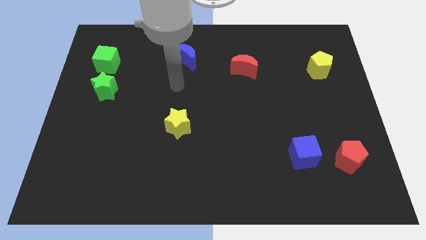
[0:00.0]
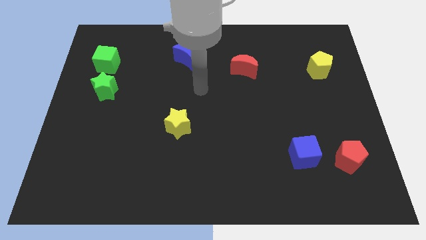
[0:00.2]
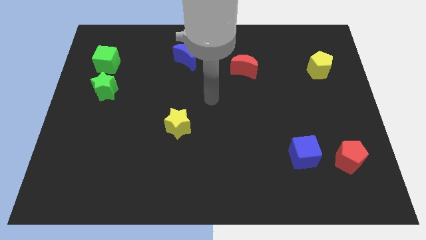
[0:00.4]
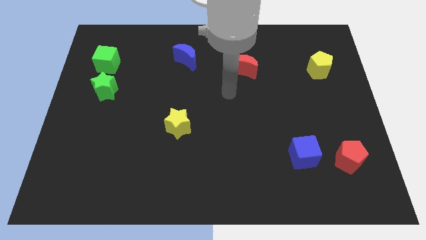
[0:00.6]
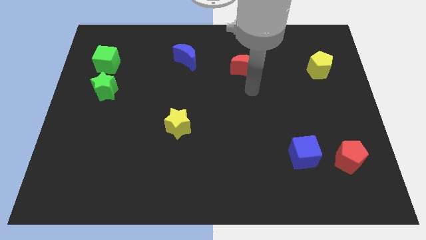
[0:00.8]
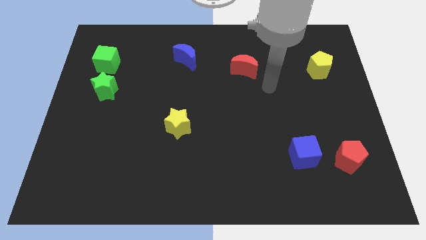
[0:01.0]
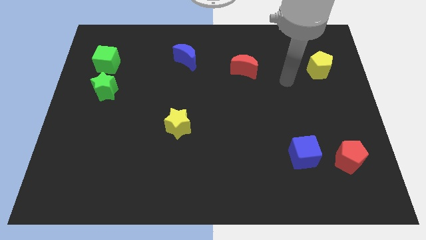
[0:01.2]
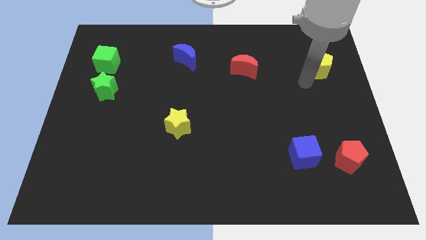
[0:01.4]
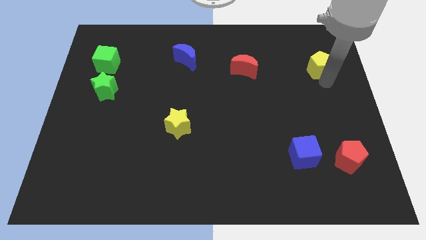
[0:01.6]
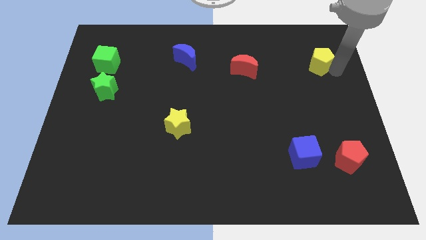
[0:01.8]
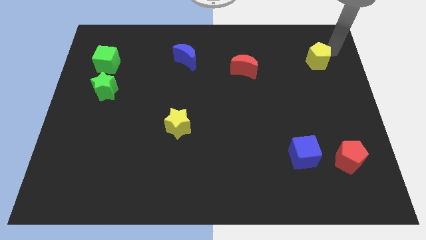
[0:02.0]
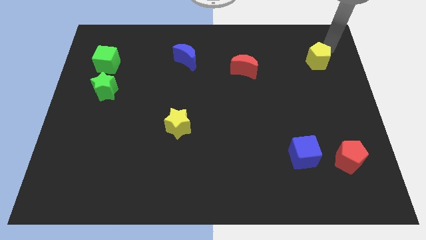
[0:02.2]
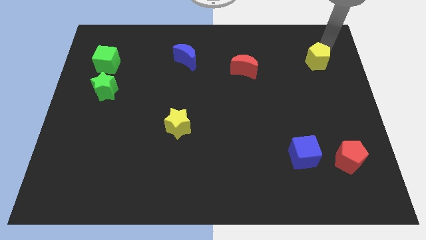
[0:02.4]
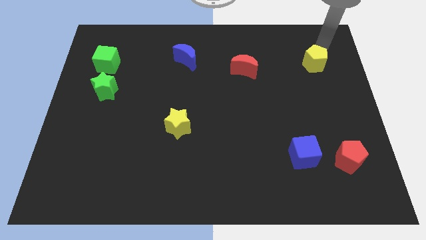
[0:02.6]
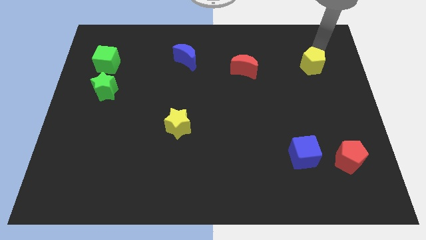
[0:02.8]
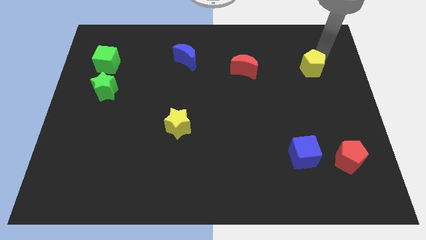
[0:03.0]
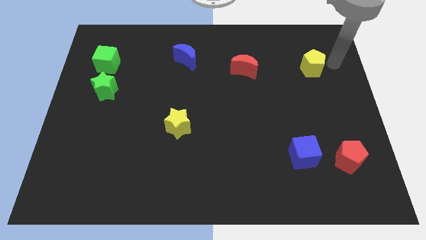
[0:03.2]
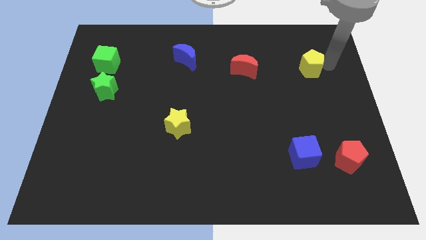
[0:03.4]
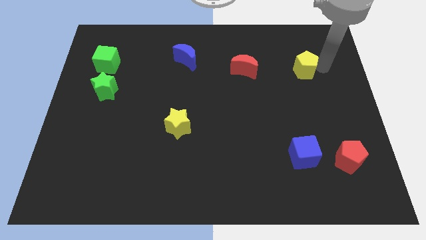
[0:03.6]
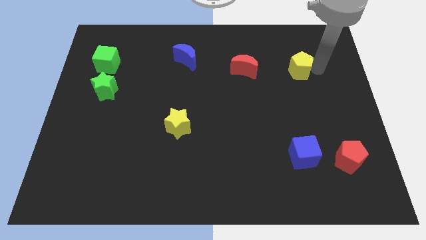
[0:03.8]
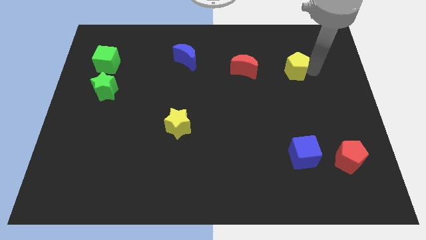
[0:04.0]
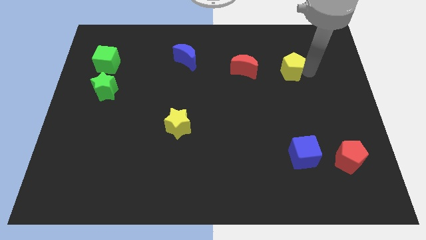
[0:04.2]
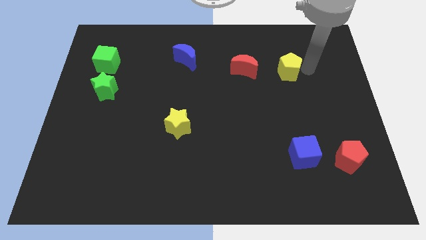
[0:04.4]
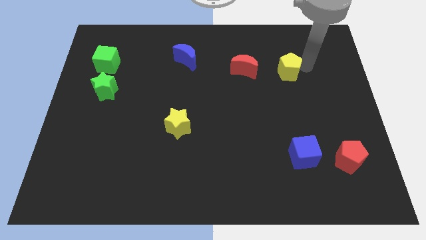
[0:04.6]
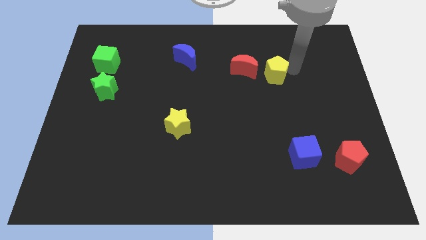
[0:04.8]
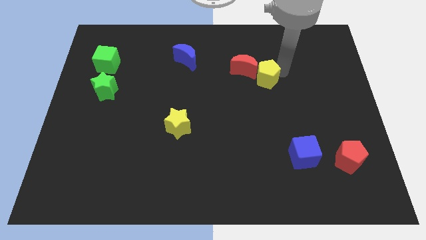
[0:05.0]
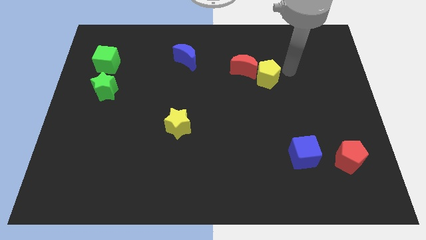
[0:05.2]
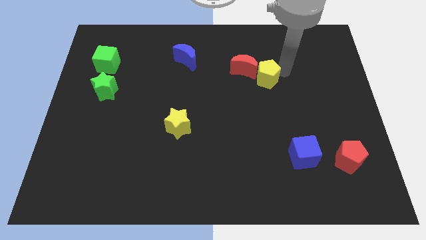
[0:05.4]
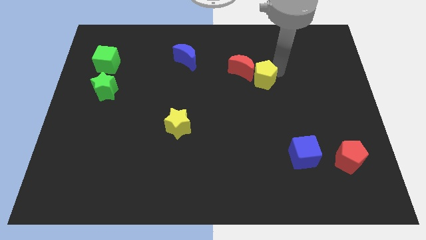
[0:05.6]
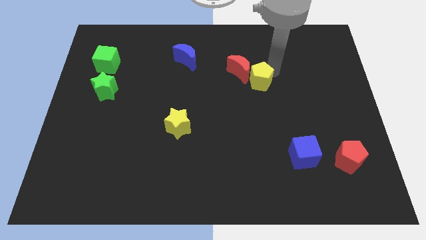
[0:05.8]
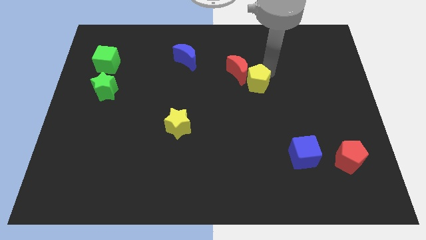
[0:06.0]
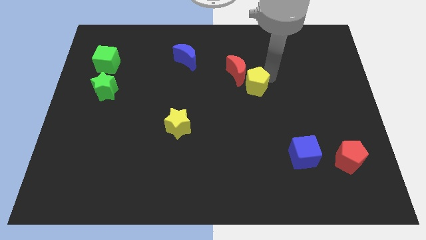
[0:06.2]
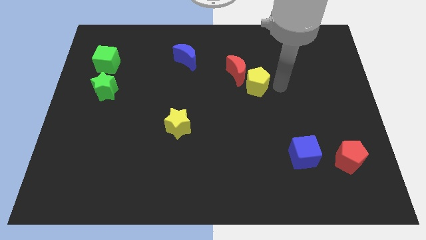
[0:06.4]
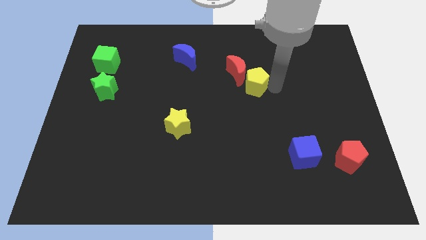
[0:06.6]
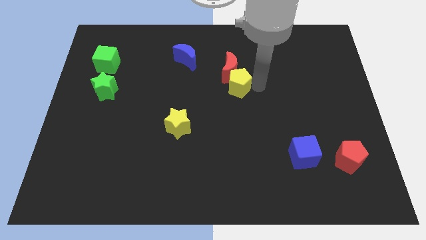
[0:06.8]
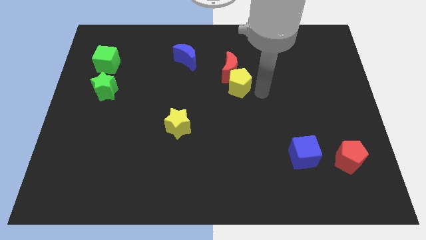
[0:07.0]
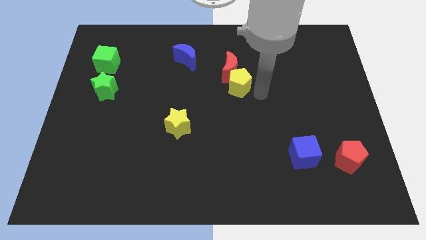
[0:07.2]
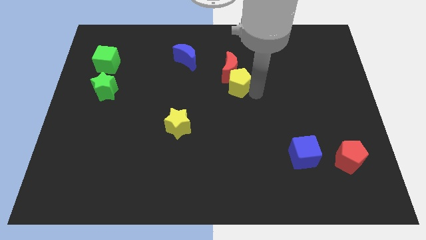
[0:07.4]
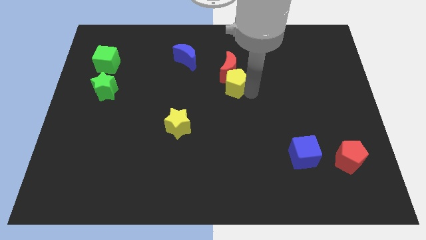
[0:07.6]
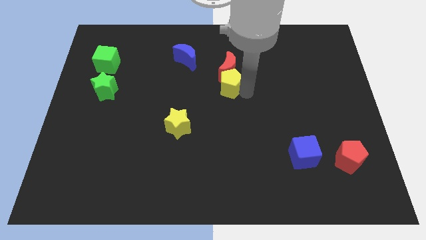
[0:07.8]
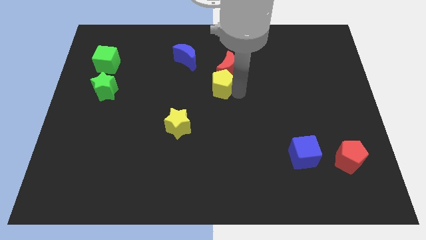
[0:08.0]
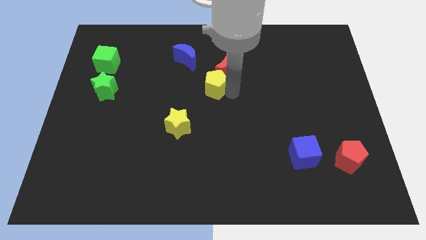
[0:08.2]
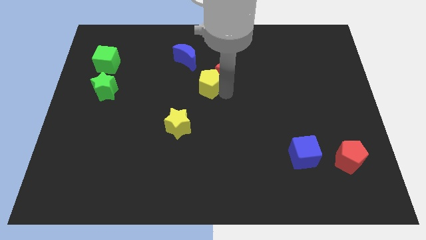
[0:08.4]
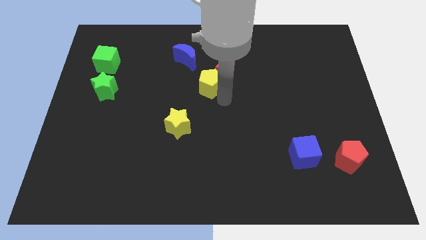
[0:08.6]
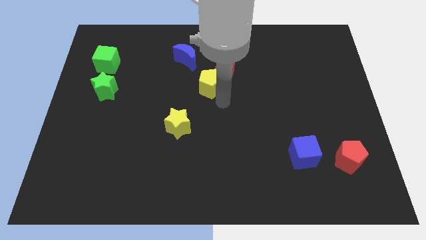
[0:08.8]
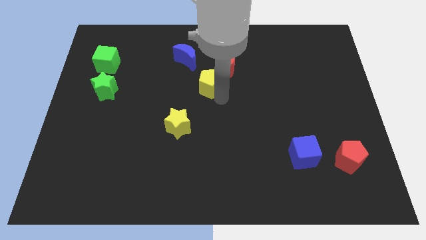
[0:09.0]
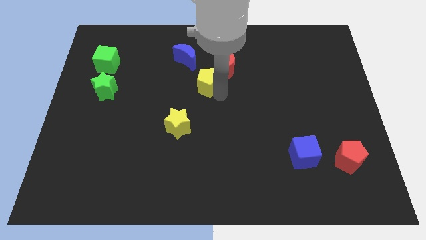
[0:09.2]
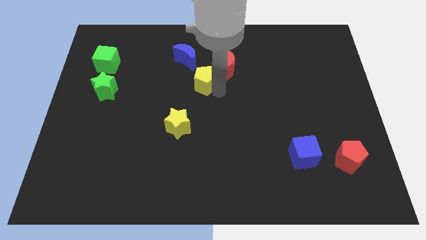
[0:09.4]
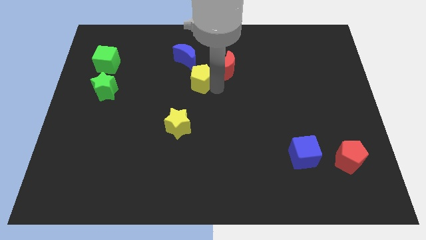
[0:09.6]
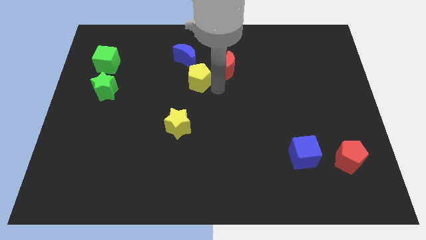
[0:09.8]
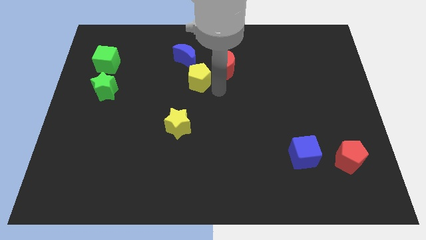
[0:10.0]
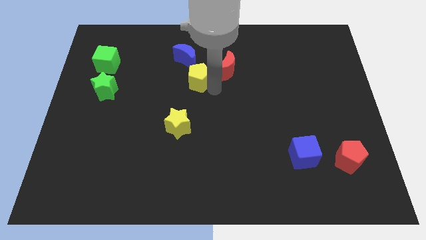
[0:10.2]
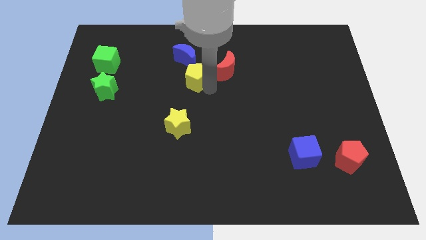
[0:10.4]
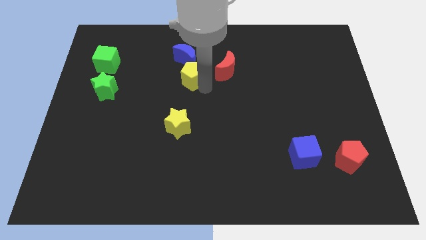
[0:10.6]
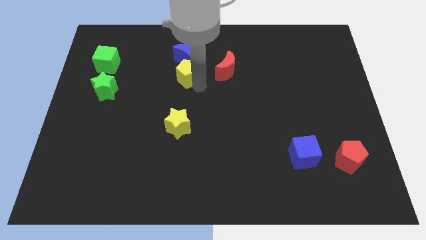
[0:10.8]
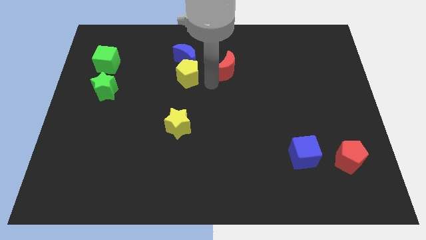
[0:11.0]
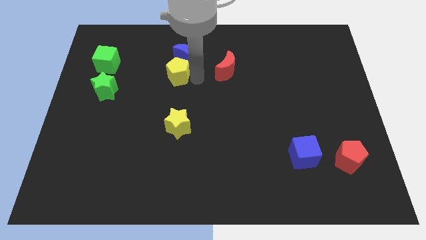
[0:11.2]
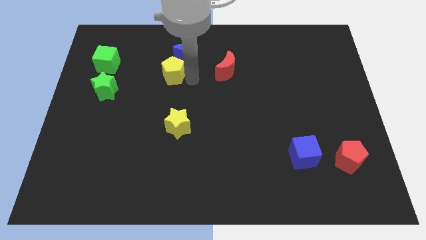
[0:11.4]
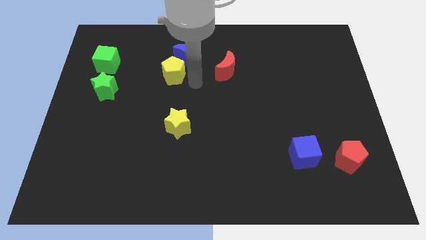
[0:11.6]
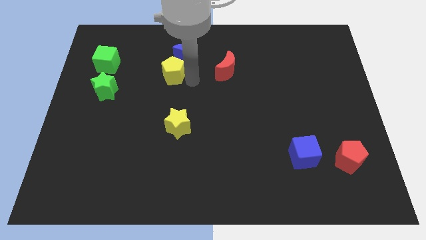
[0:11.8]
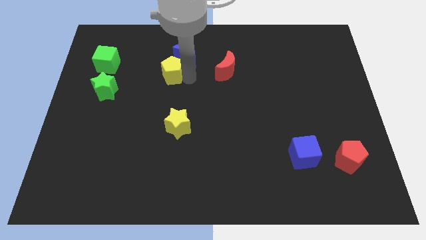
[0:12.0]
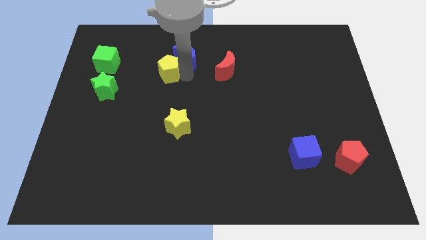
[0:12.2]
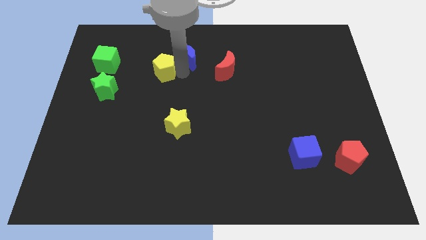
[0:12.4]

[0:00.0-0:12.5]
slide the yellow pentagon to the right side of the green cube
